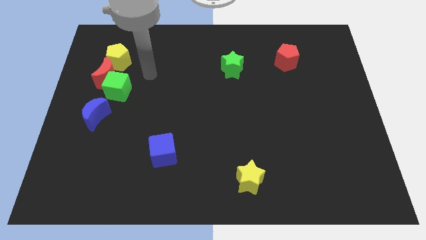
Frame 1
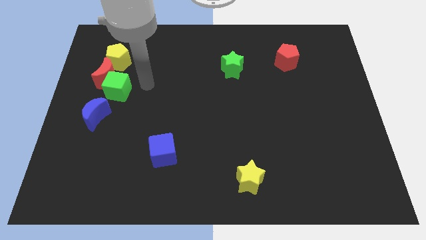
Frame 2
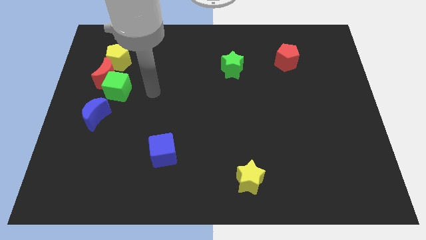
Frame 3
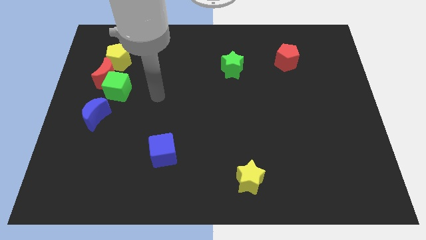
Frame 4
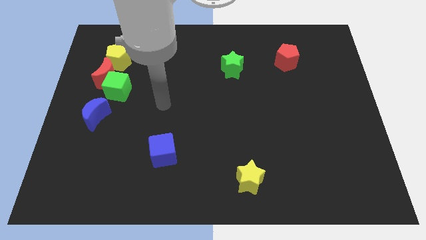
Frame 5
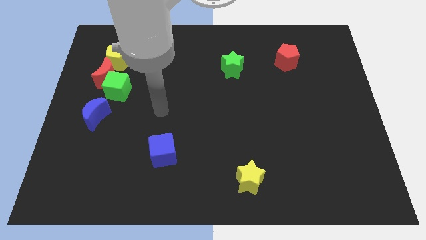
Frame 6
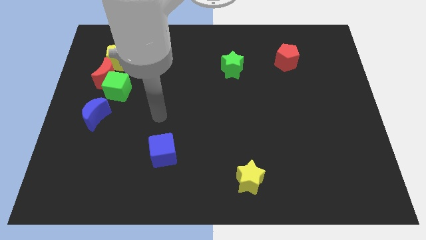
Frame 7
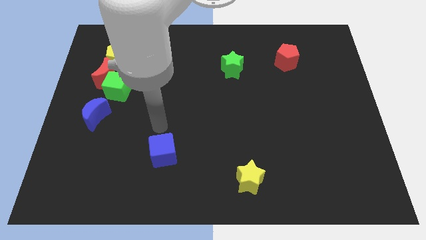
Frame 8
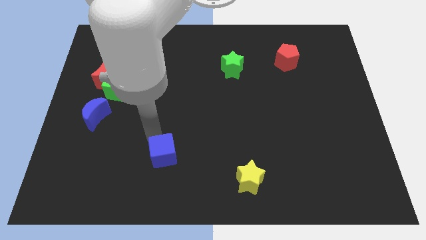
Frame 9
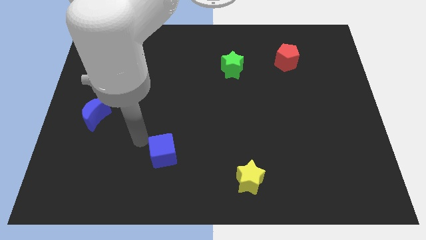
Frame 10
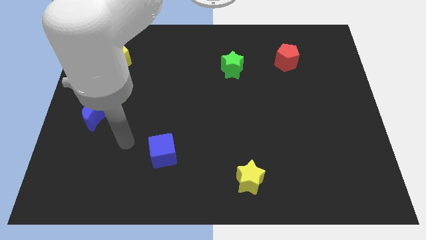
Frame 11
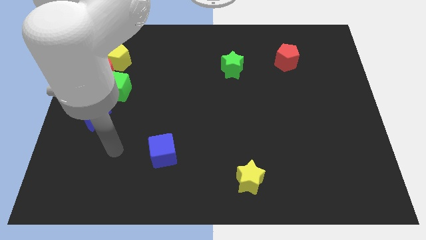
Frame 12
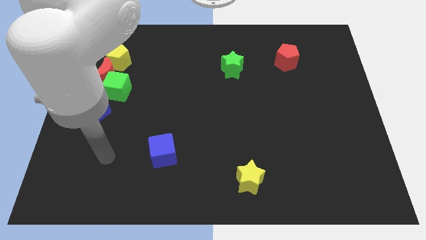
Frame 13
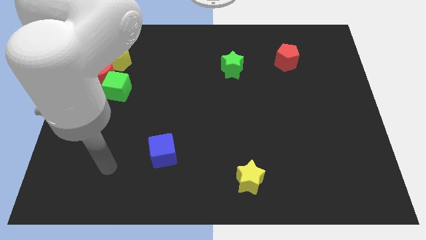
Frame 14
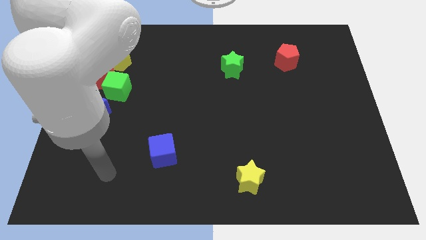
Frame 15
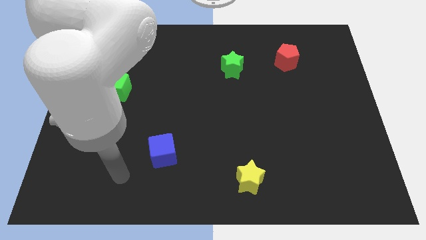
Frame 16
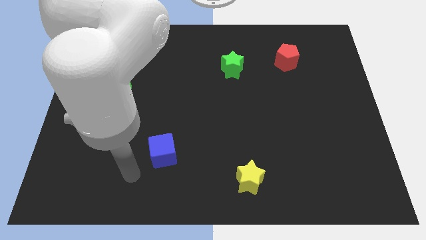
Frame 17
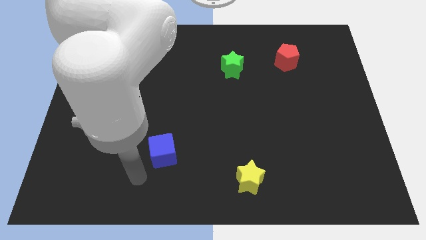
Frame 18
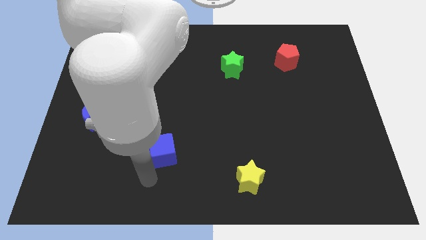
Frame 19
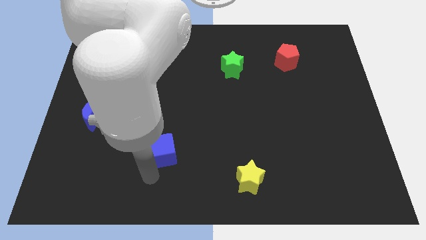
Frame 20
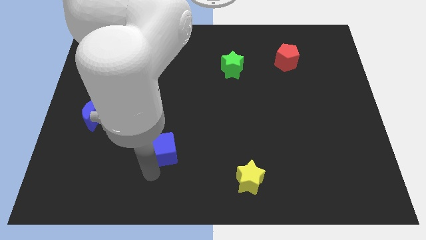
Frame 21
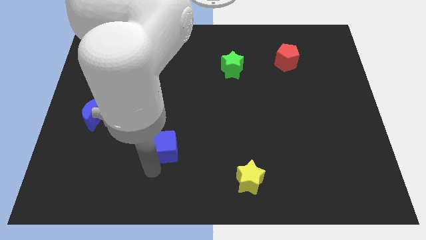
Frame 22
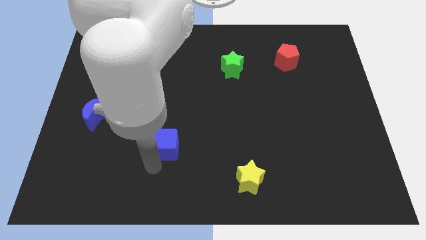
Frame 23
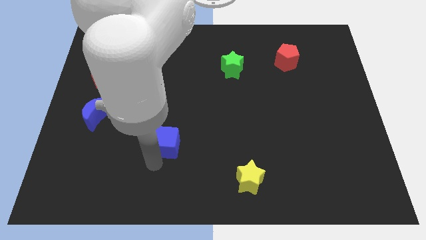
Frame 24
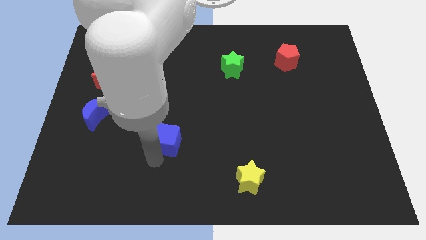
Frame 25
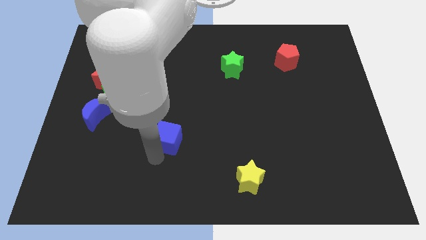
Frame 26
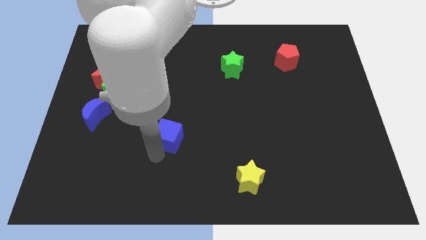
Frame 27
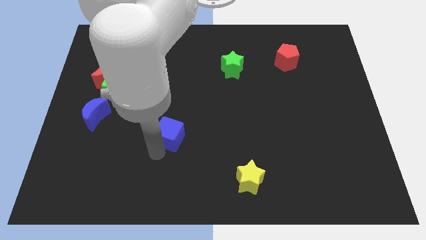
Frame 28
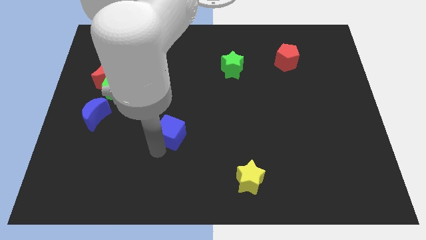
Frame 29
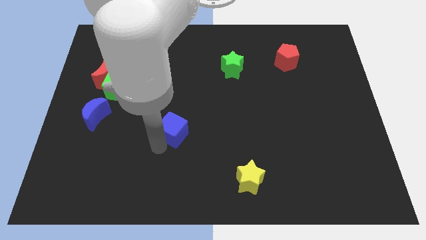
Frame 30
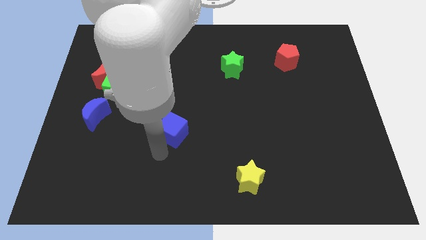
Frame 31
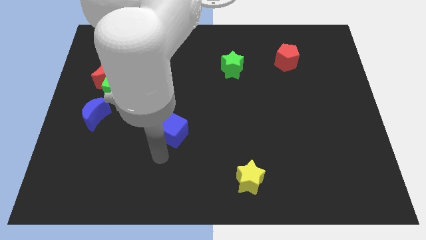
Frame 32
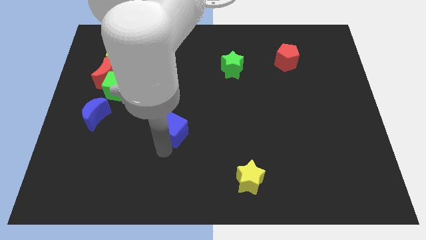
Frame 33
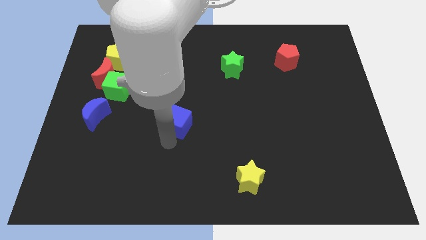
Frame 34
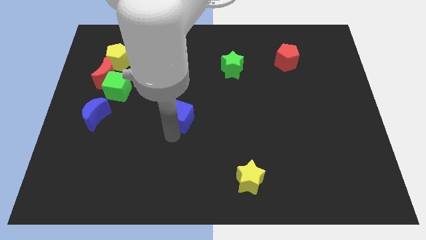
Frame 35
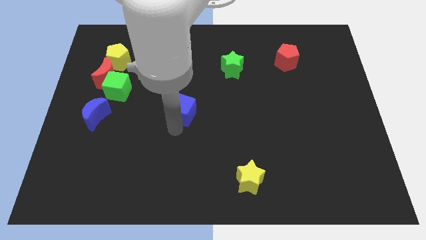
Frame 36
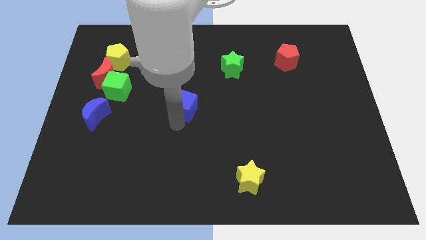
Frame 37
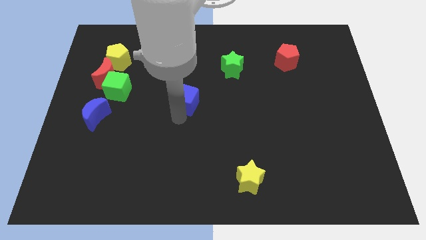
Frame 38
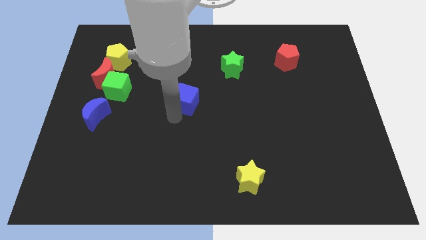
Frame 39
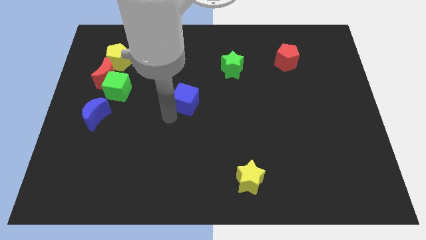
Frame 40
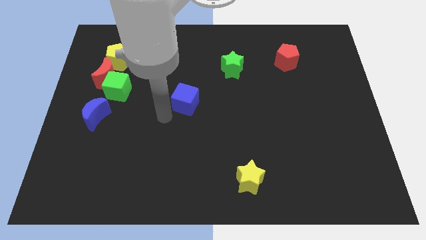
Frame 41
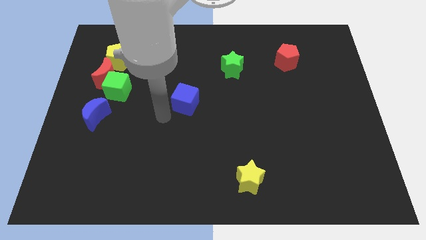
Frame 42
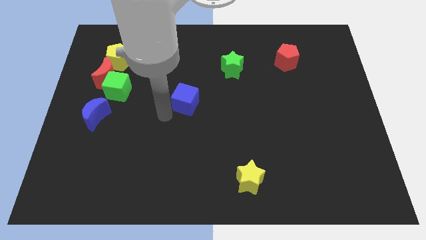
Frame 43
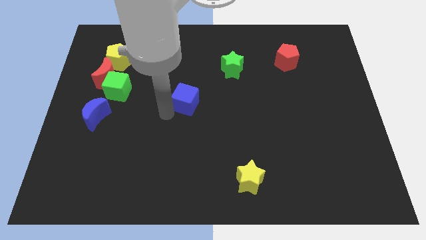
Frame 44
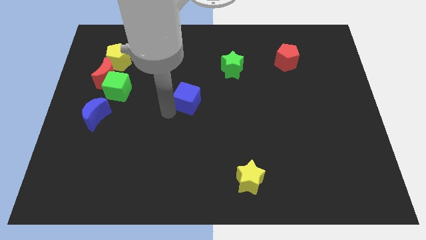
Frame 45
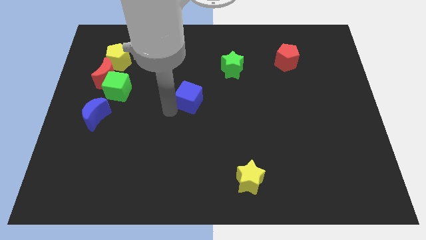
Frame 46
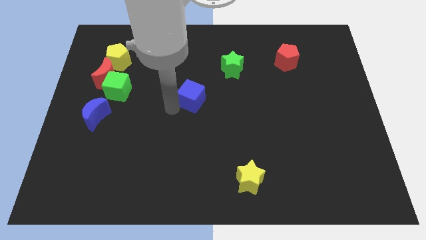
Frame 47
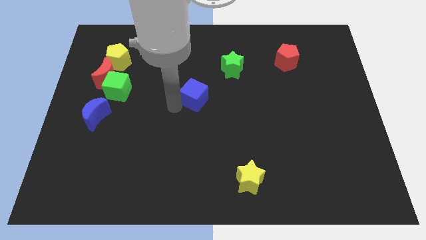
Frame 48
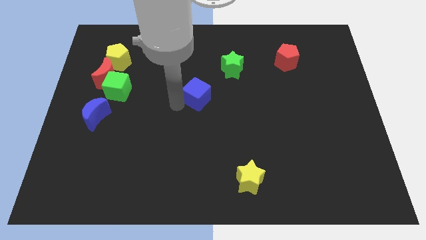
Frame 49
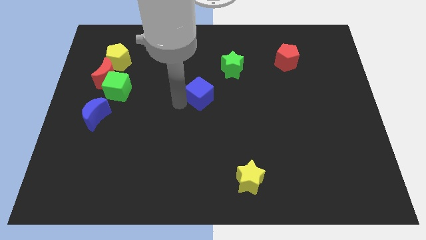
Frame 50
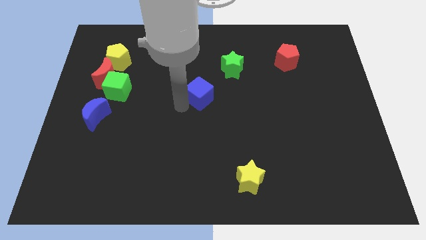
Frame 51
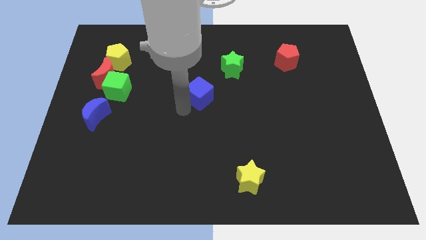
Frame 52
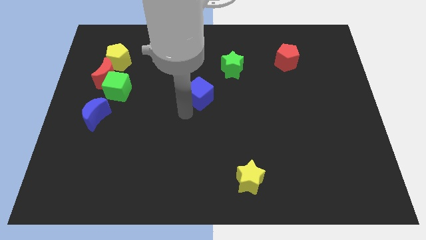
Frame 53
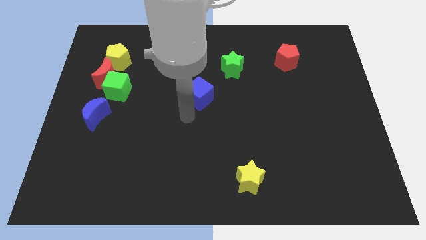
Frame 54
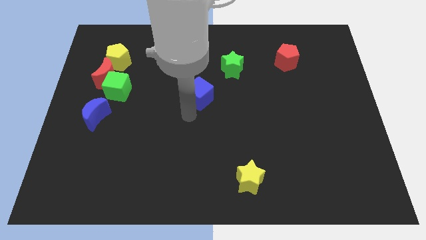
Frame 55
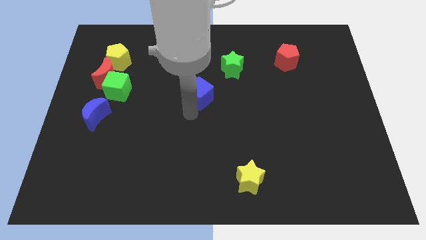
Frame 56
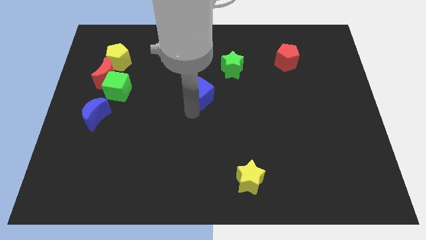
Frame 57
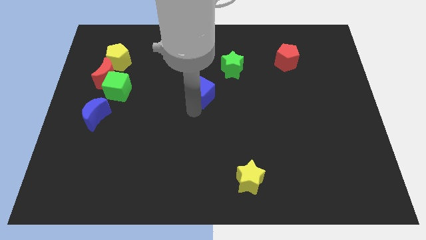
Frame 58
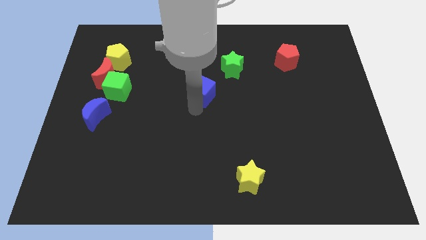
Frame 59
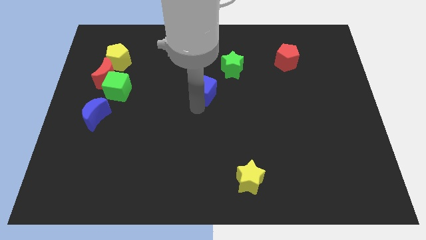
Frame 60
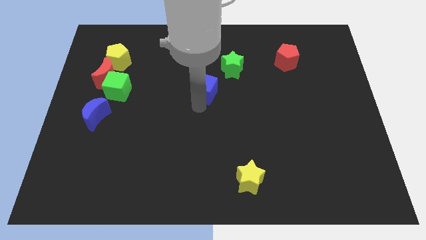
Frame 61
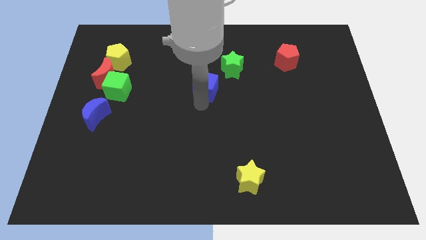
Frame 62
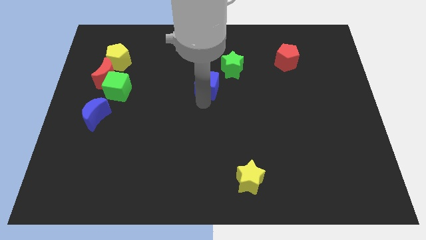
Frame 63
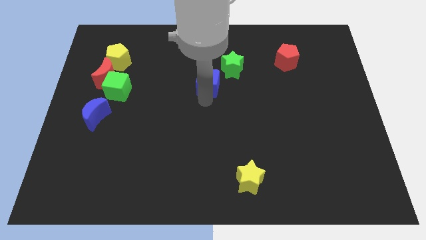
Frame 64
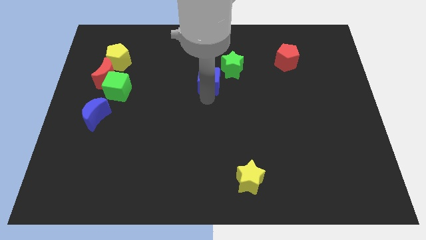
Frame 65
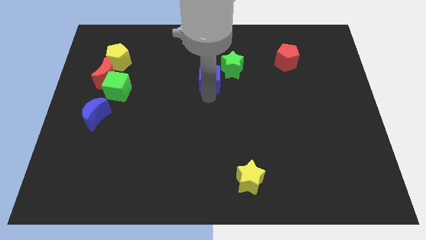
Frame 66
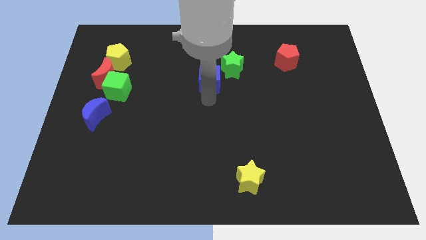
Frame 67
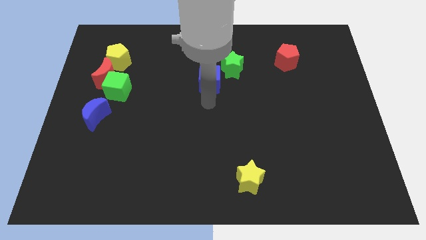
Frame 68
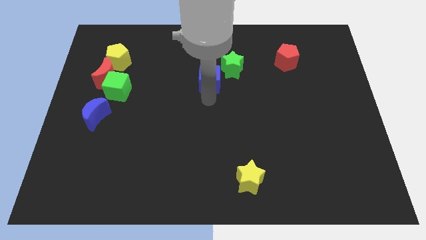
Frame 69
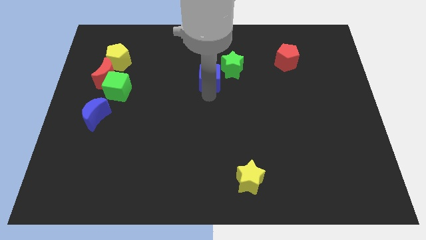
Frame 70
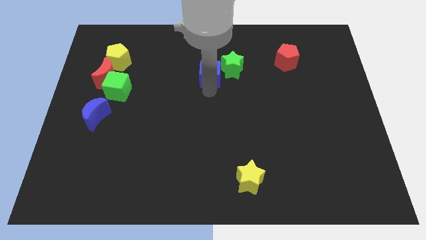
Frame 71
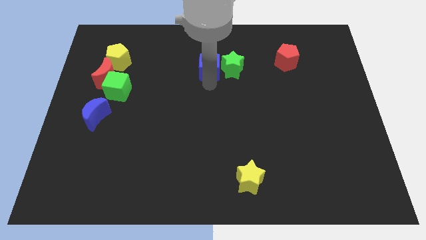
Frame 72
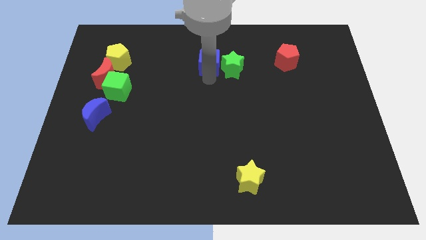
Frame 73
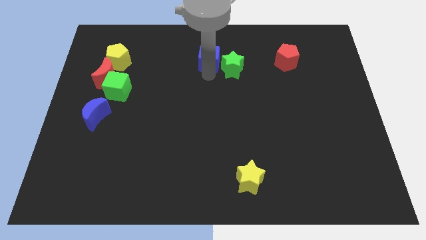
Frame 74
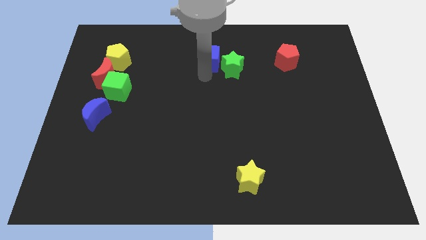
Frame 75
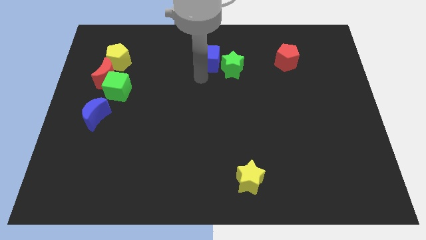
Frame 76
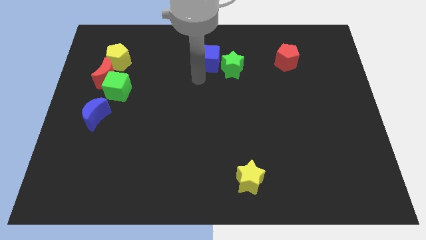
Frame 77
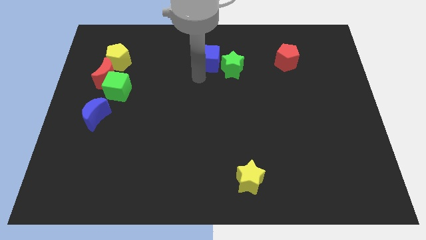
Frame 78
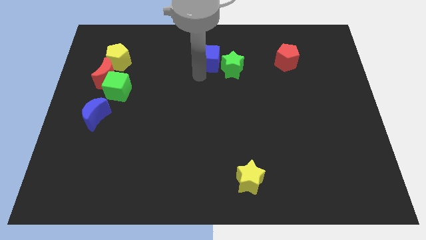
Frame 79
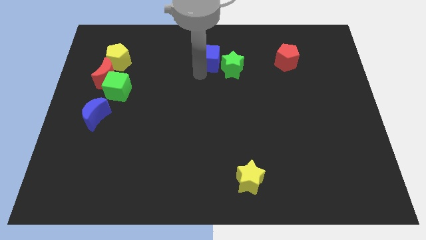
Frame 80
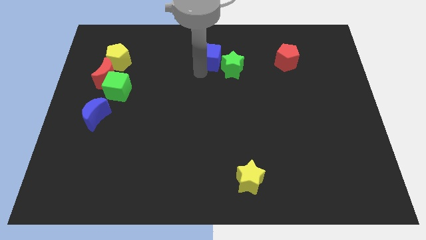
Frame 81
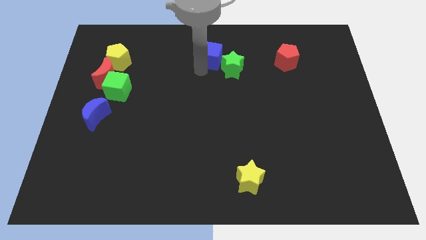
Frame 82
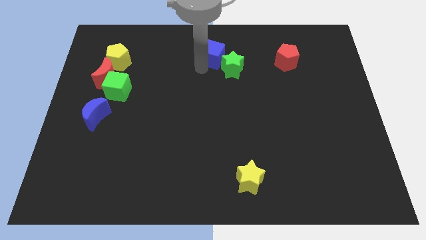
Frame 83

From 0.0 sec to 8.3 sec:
slide the blue cube to the top side
